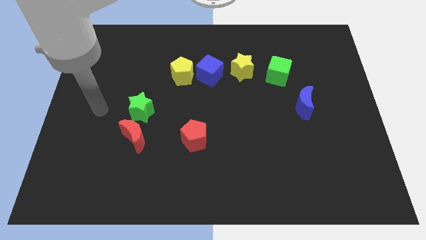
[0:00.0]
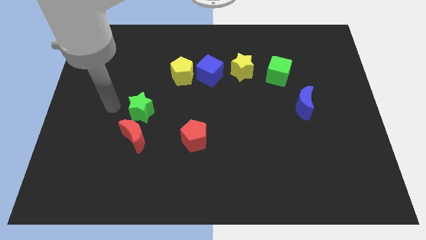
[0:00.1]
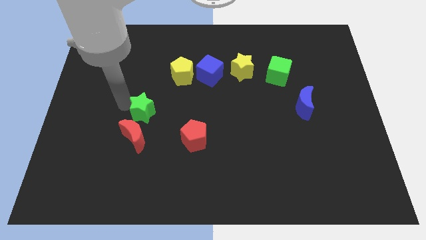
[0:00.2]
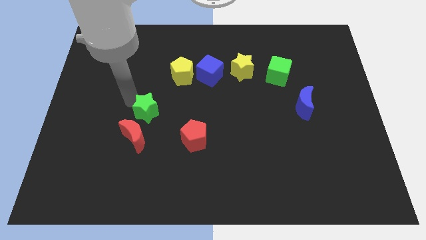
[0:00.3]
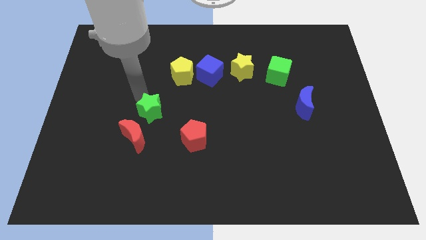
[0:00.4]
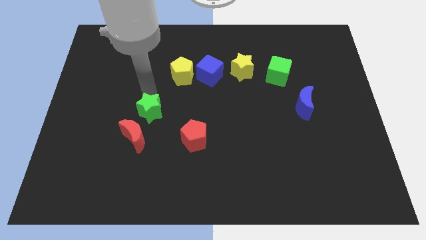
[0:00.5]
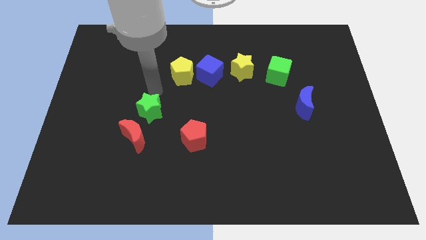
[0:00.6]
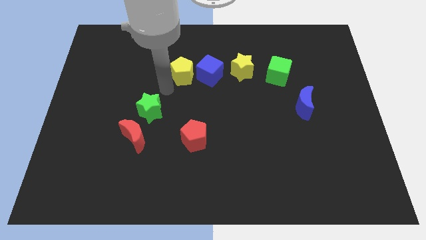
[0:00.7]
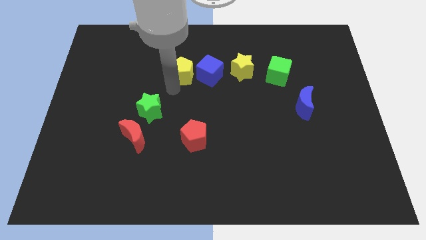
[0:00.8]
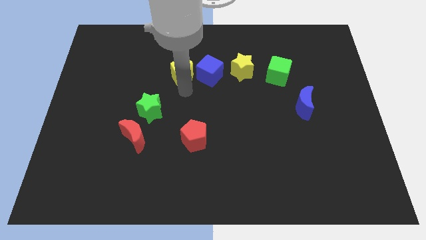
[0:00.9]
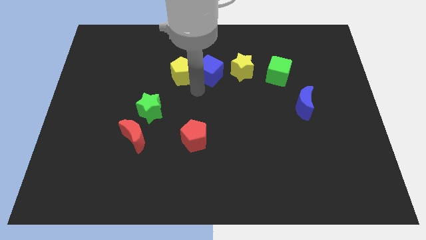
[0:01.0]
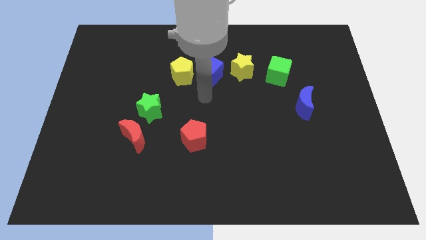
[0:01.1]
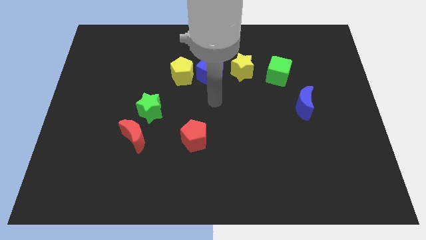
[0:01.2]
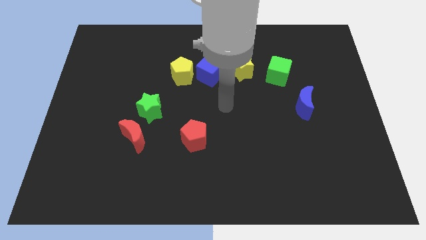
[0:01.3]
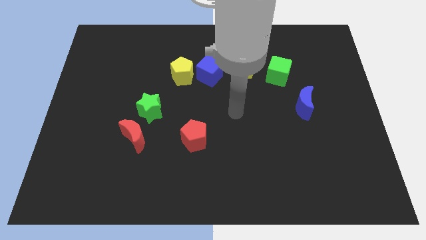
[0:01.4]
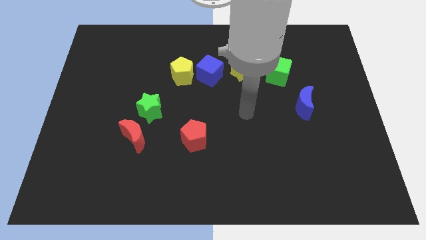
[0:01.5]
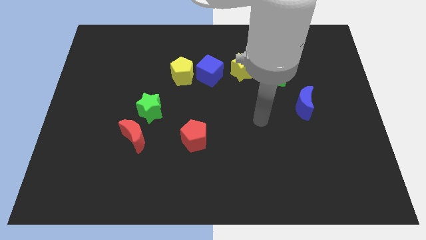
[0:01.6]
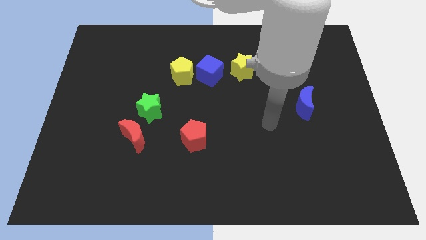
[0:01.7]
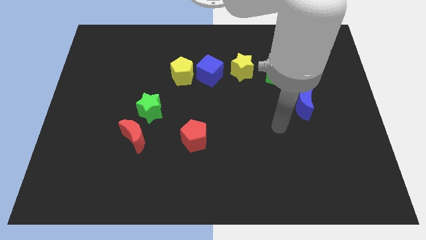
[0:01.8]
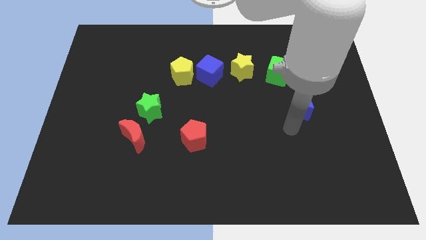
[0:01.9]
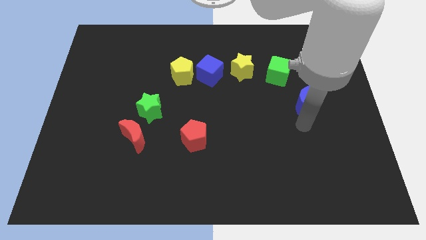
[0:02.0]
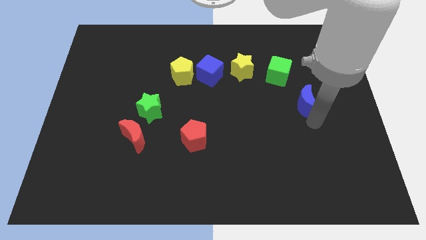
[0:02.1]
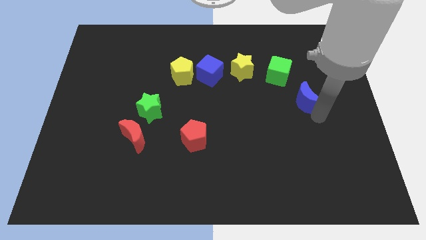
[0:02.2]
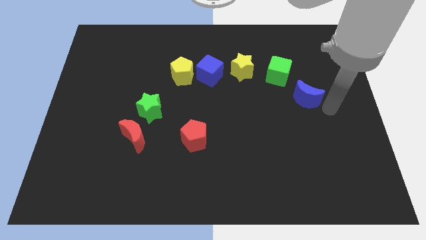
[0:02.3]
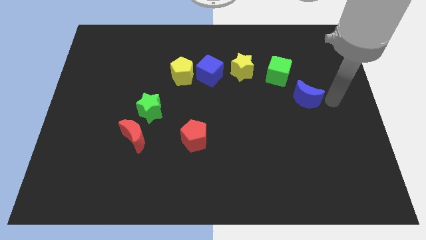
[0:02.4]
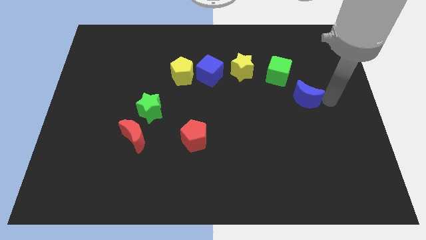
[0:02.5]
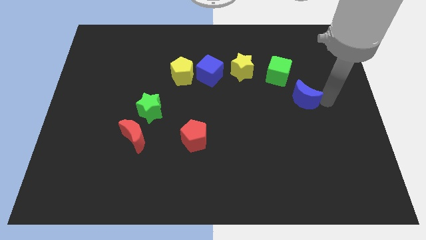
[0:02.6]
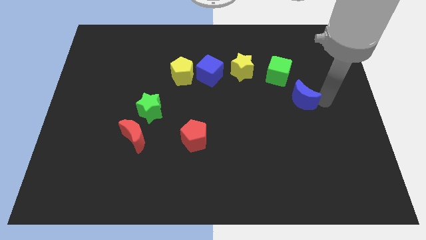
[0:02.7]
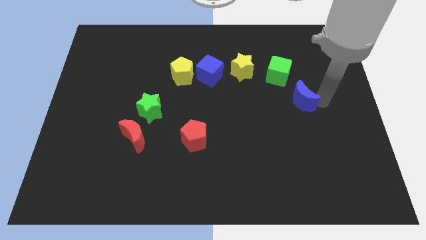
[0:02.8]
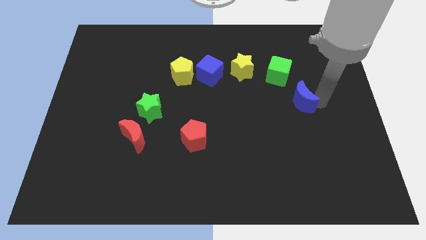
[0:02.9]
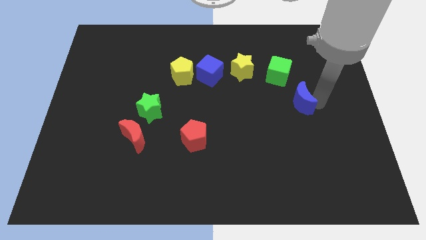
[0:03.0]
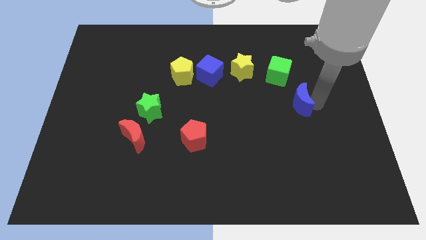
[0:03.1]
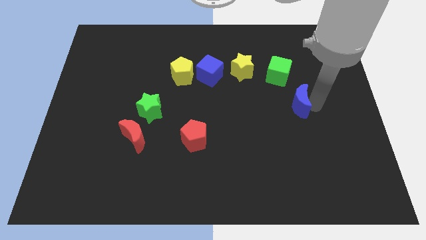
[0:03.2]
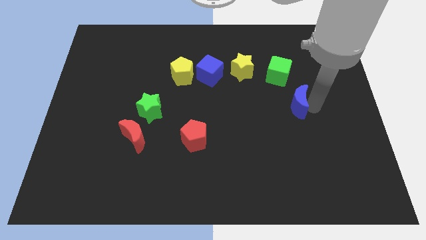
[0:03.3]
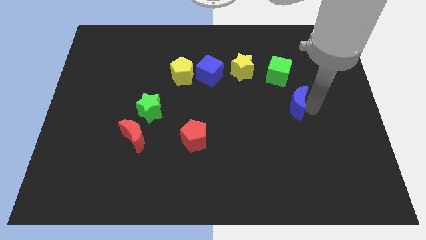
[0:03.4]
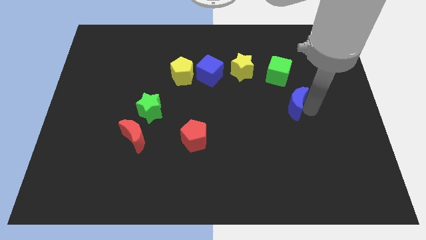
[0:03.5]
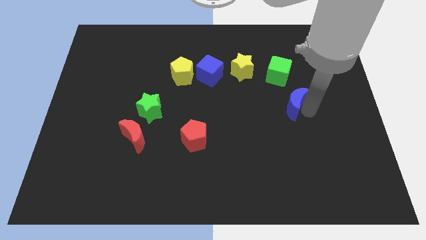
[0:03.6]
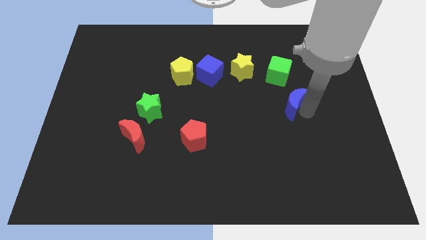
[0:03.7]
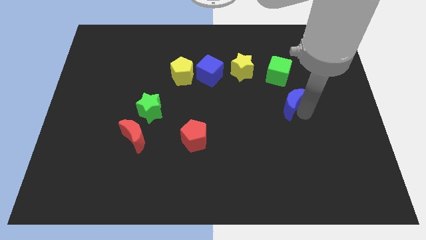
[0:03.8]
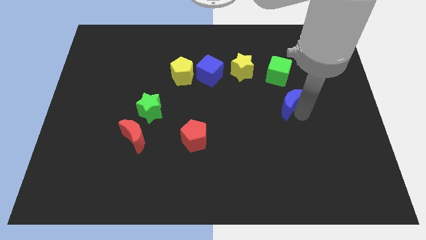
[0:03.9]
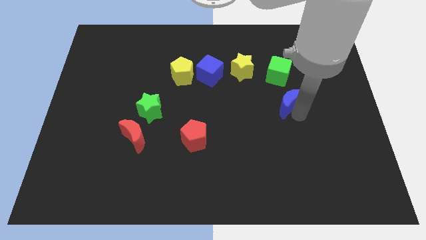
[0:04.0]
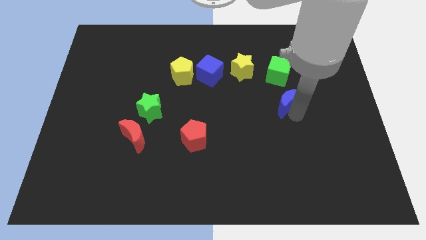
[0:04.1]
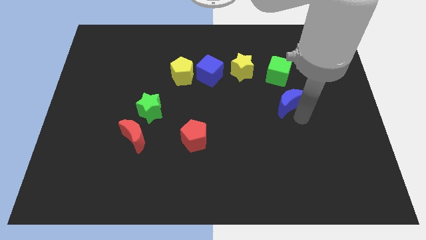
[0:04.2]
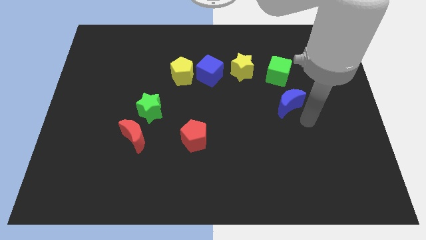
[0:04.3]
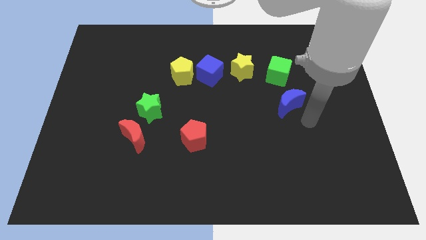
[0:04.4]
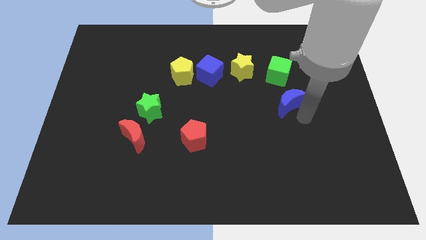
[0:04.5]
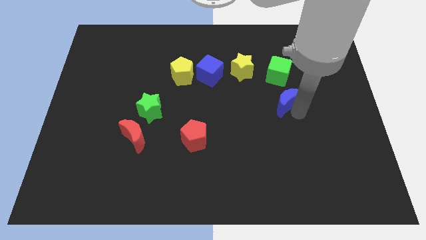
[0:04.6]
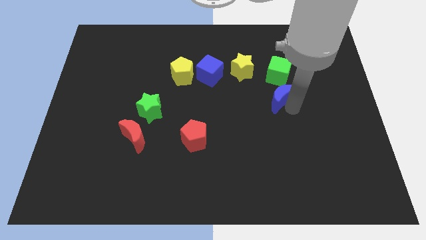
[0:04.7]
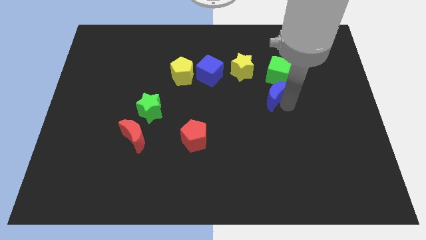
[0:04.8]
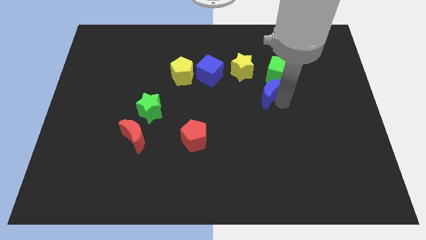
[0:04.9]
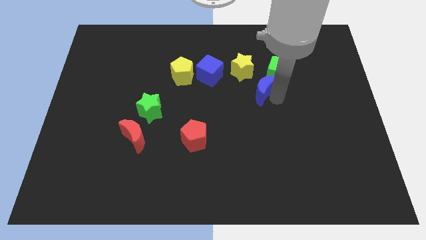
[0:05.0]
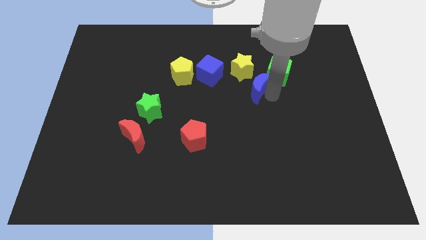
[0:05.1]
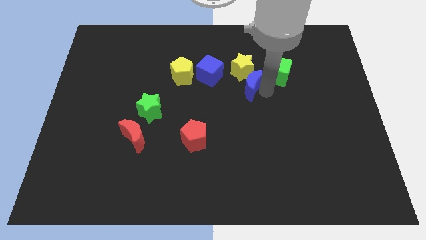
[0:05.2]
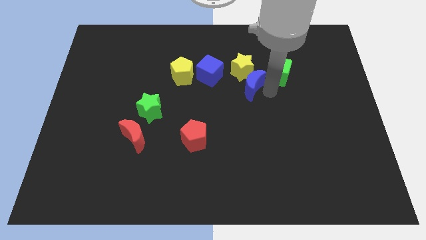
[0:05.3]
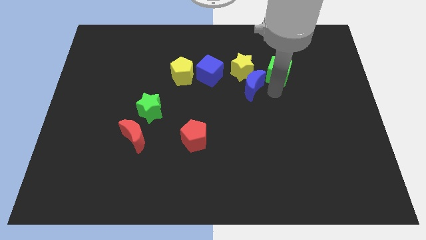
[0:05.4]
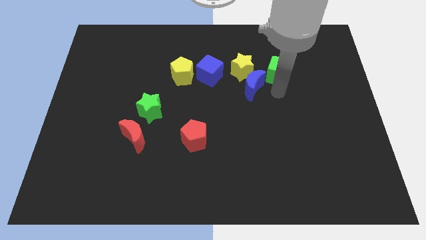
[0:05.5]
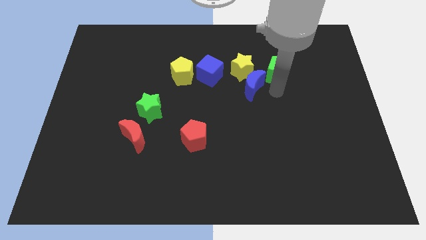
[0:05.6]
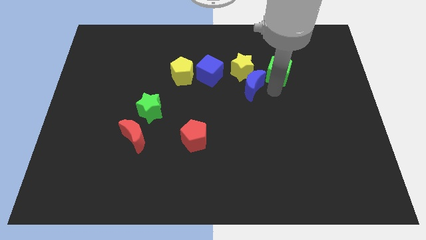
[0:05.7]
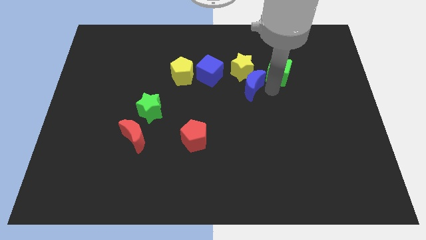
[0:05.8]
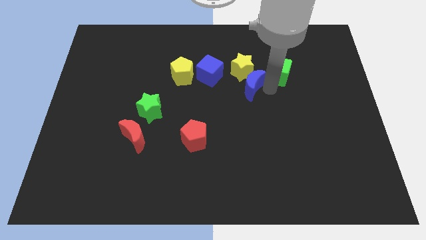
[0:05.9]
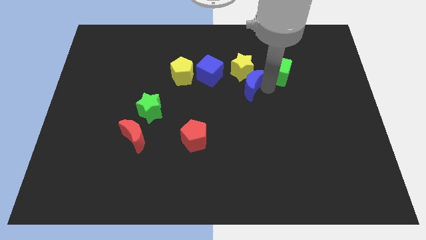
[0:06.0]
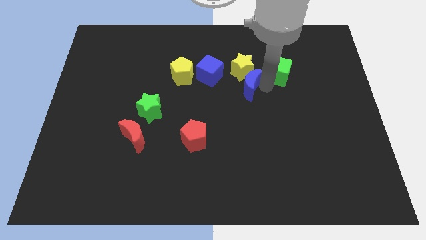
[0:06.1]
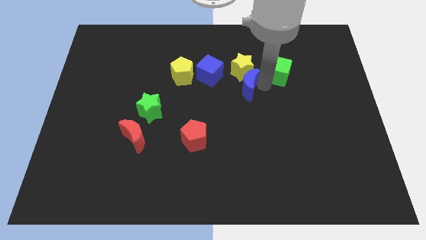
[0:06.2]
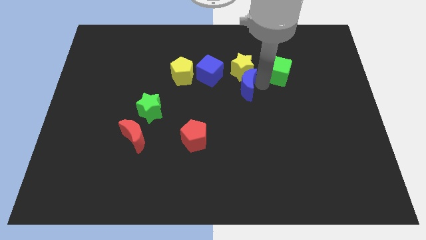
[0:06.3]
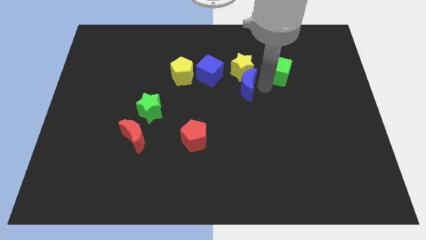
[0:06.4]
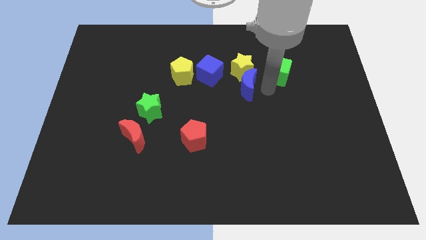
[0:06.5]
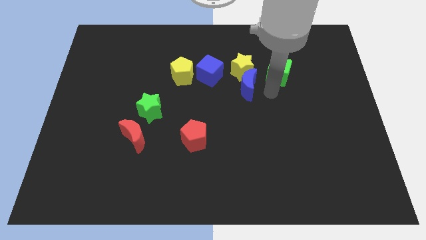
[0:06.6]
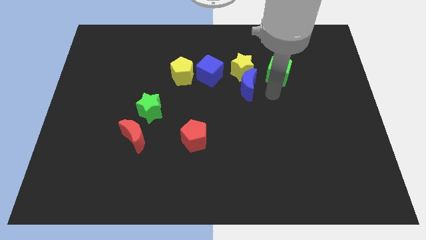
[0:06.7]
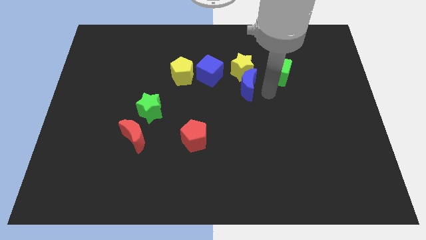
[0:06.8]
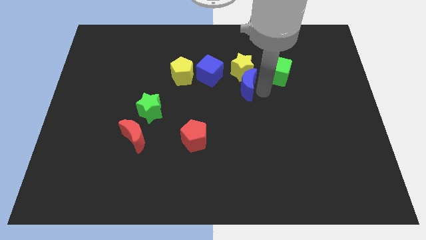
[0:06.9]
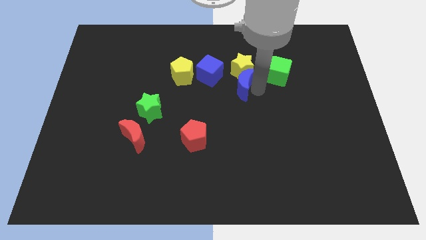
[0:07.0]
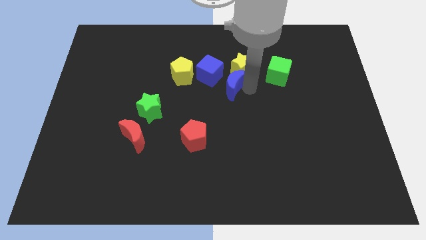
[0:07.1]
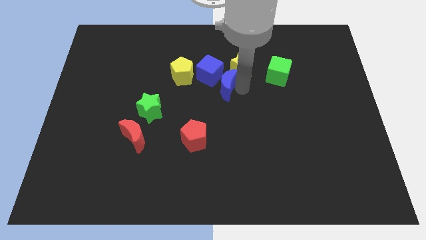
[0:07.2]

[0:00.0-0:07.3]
put the blue moon next to the blue cube
